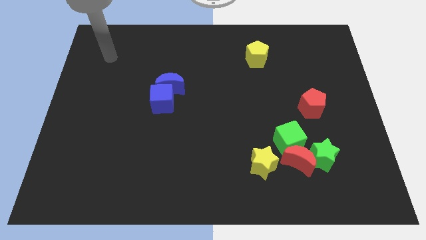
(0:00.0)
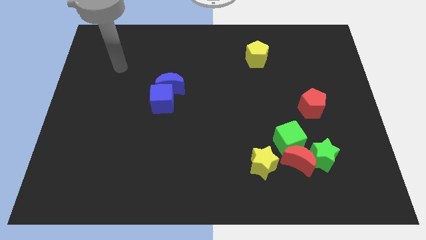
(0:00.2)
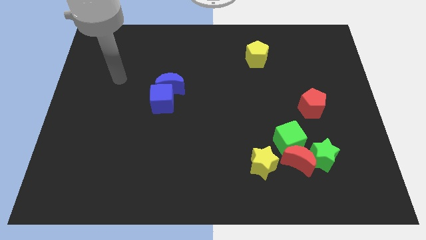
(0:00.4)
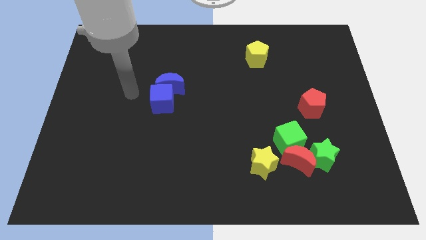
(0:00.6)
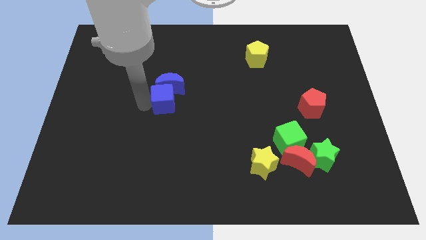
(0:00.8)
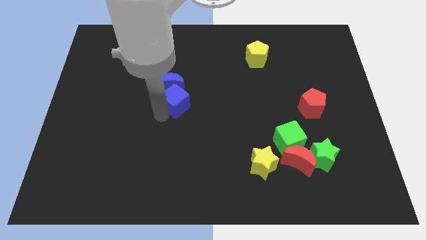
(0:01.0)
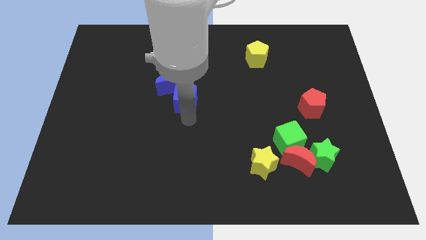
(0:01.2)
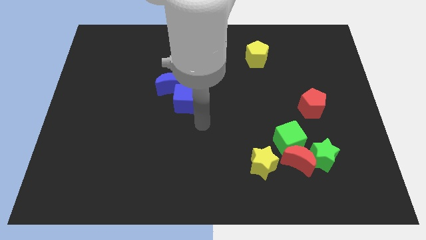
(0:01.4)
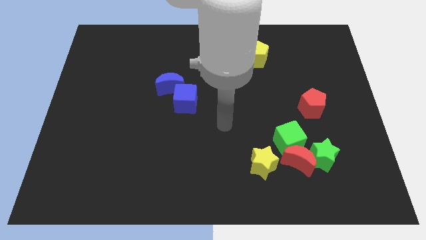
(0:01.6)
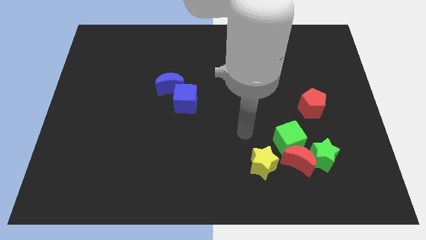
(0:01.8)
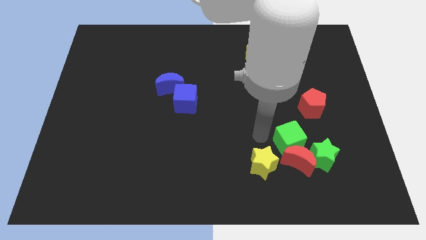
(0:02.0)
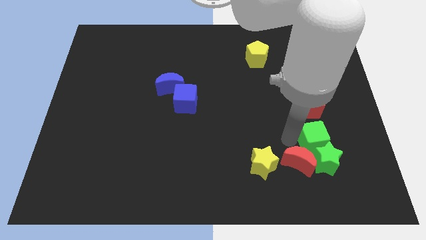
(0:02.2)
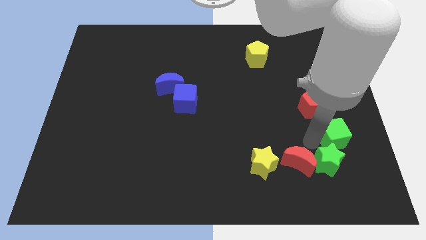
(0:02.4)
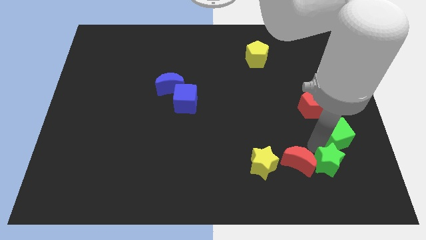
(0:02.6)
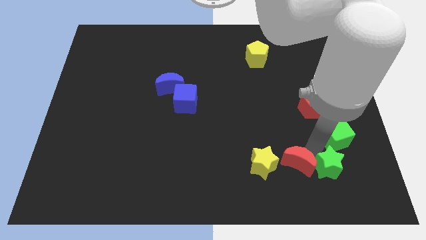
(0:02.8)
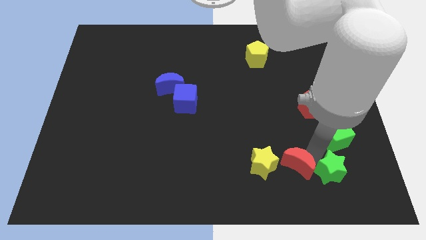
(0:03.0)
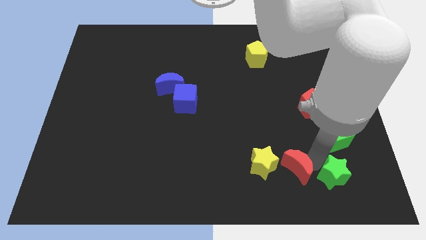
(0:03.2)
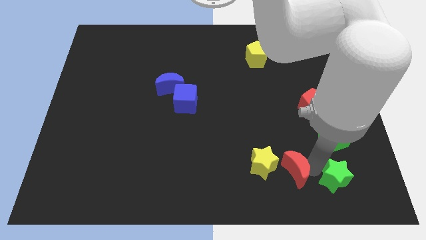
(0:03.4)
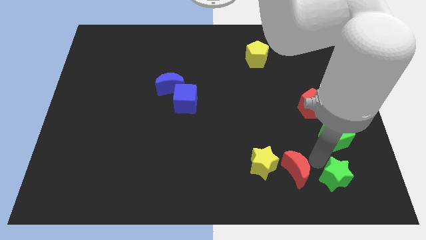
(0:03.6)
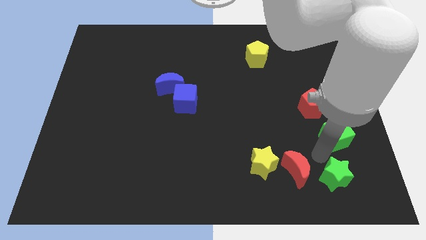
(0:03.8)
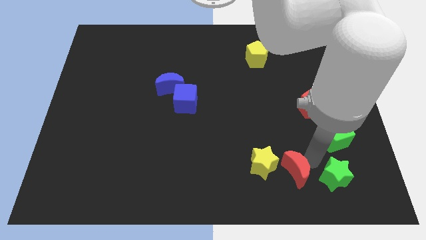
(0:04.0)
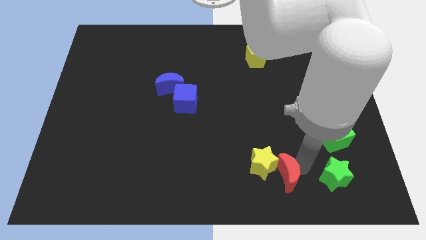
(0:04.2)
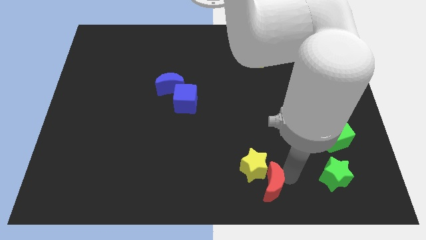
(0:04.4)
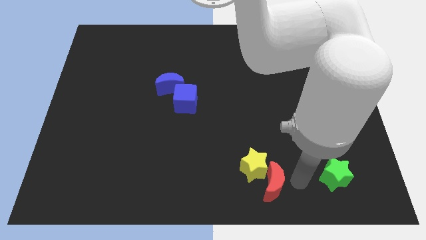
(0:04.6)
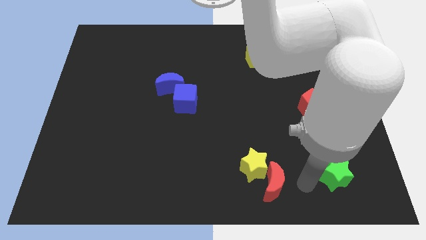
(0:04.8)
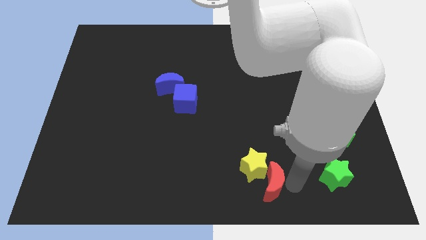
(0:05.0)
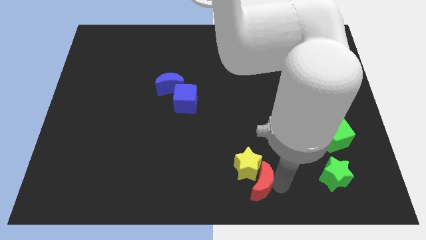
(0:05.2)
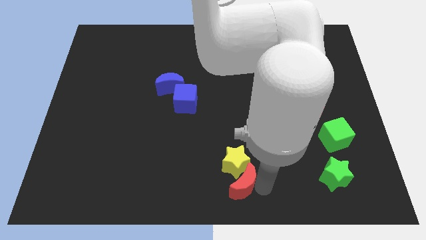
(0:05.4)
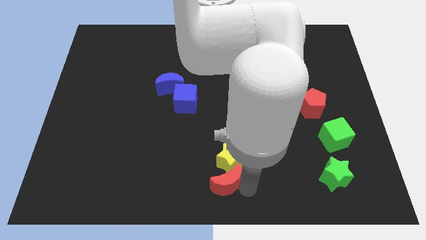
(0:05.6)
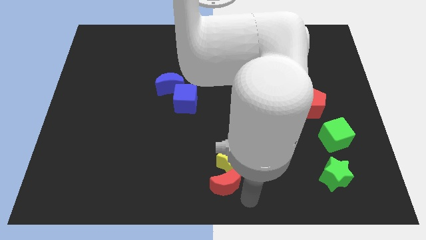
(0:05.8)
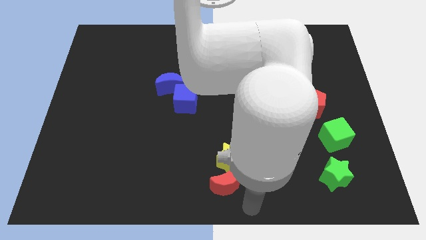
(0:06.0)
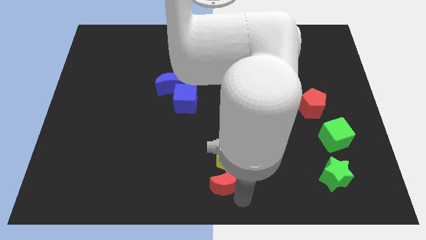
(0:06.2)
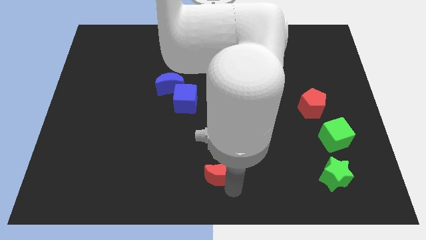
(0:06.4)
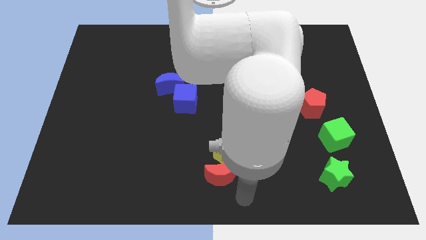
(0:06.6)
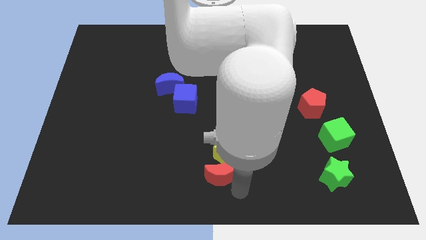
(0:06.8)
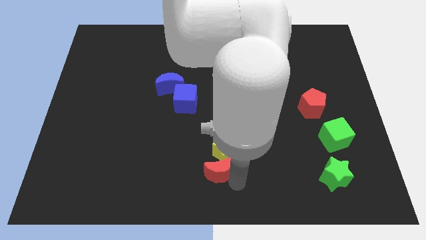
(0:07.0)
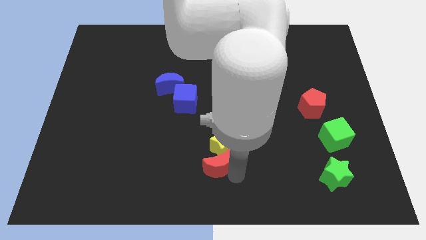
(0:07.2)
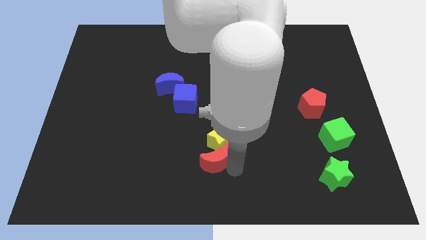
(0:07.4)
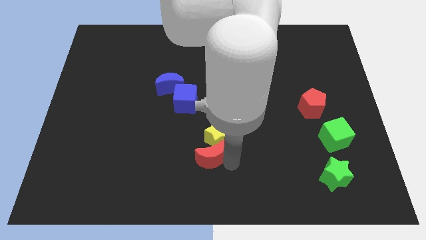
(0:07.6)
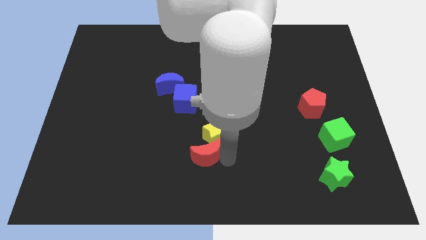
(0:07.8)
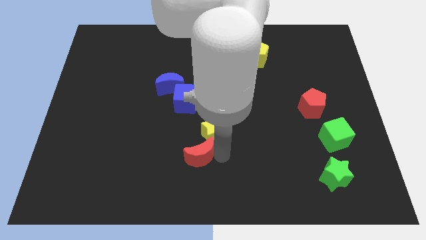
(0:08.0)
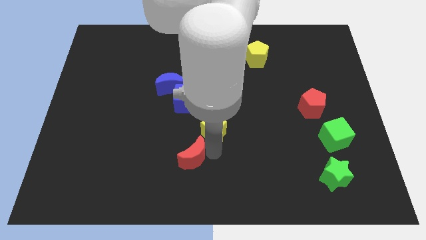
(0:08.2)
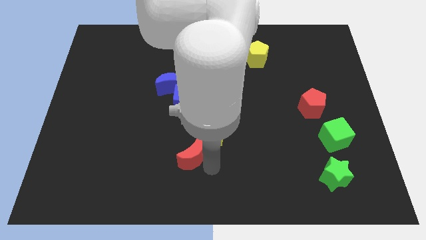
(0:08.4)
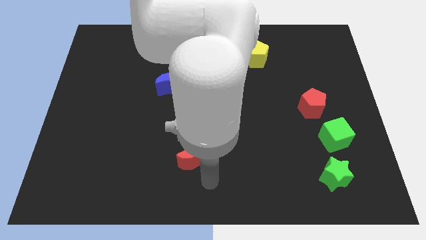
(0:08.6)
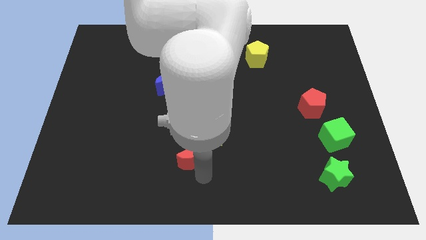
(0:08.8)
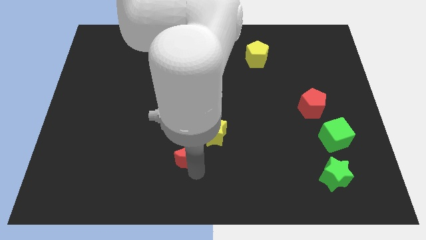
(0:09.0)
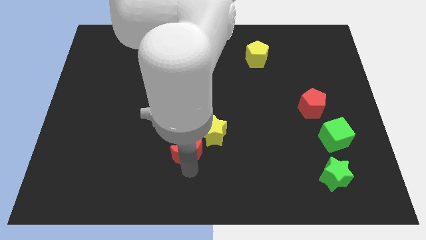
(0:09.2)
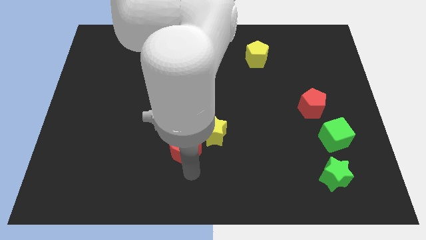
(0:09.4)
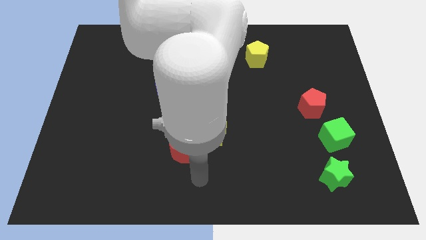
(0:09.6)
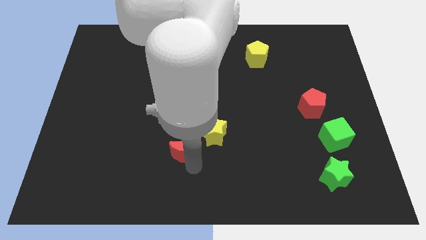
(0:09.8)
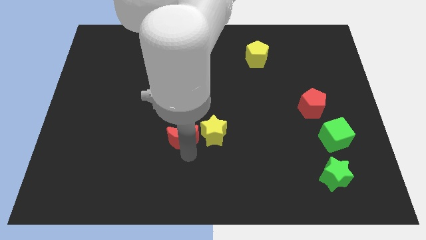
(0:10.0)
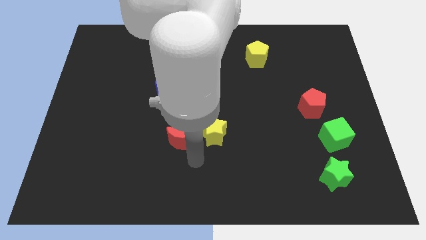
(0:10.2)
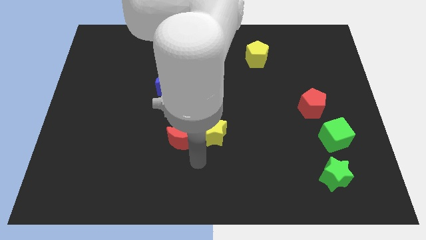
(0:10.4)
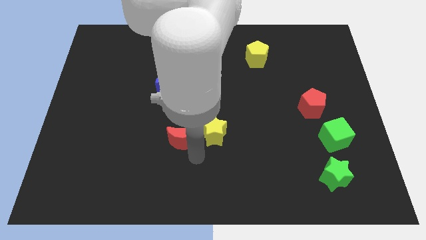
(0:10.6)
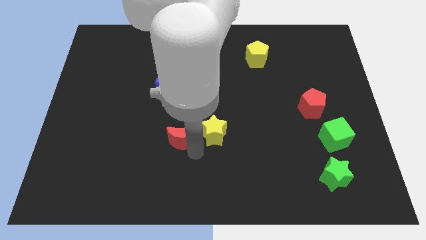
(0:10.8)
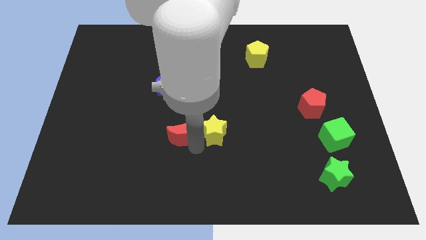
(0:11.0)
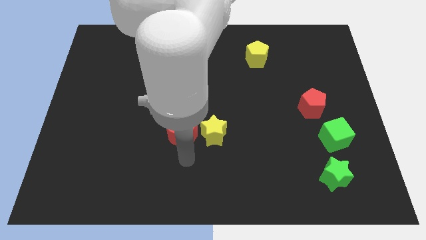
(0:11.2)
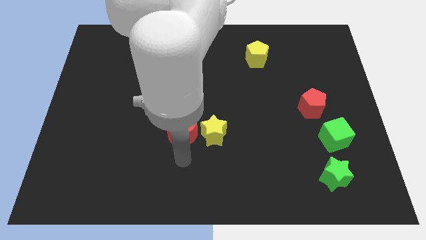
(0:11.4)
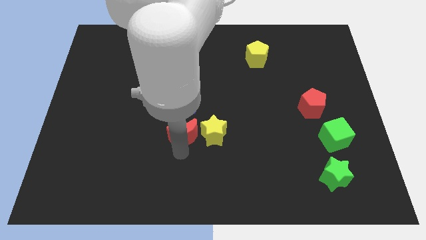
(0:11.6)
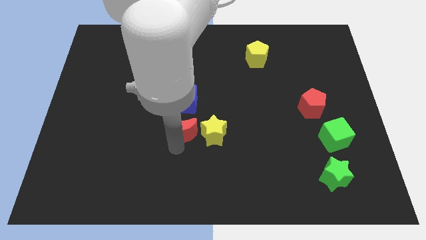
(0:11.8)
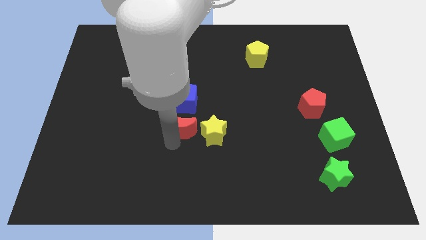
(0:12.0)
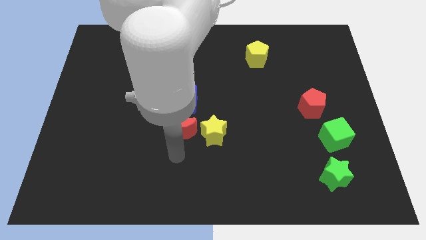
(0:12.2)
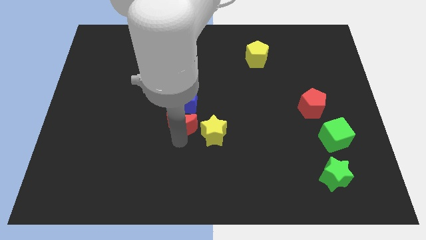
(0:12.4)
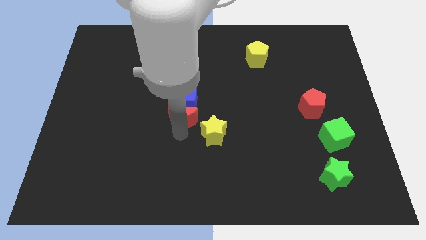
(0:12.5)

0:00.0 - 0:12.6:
put the red moon to the blue cube

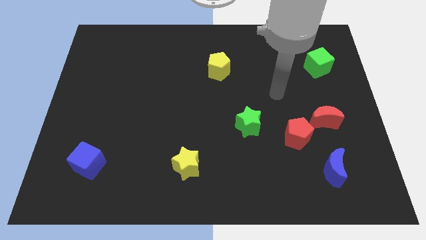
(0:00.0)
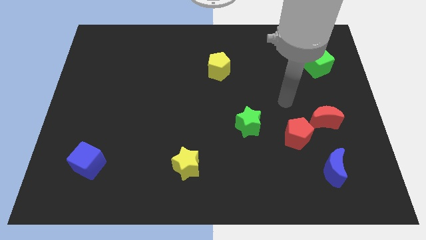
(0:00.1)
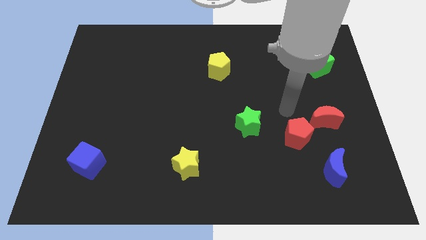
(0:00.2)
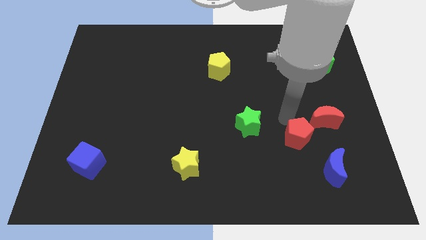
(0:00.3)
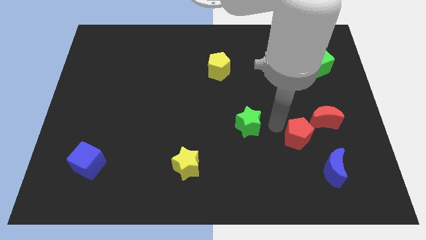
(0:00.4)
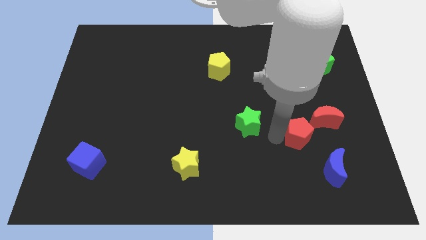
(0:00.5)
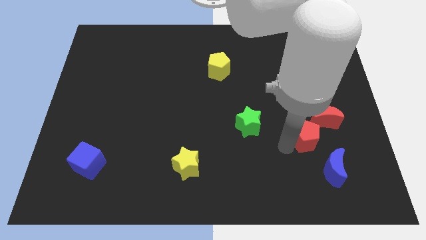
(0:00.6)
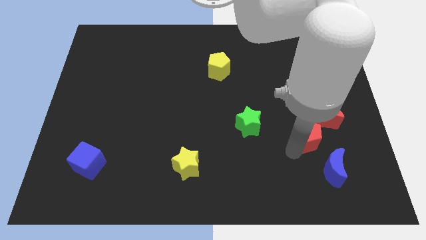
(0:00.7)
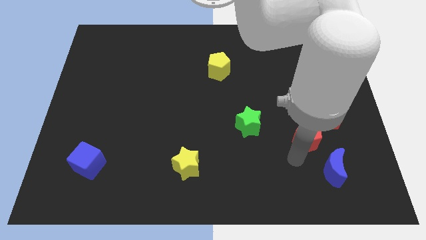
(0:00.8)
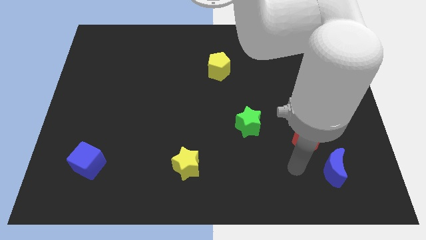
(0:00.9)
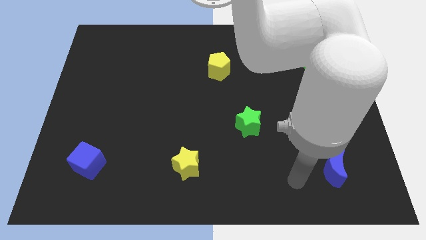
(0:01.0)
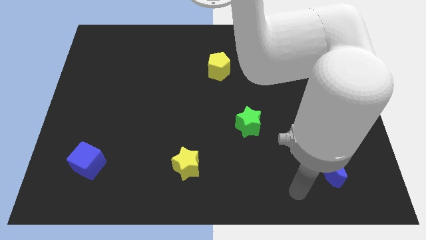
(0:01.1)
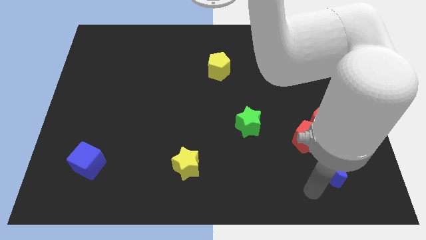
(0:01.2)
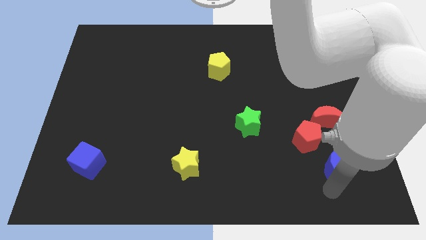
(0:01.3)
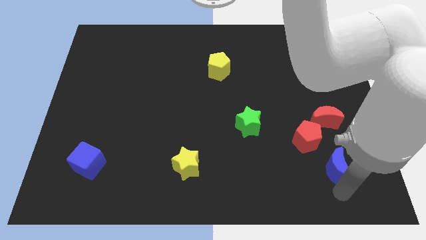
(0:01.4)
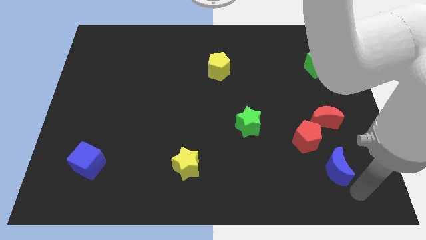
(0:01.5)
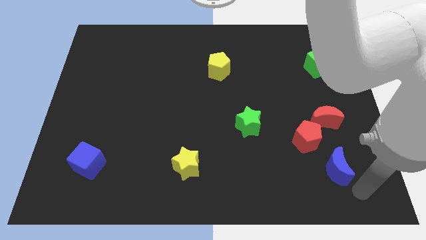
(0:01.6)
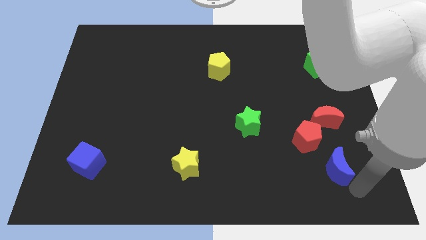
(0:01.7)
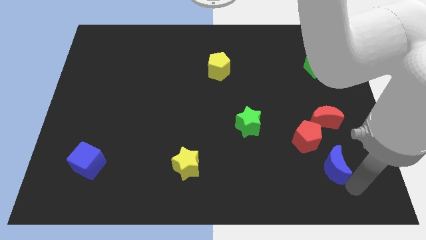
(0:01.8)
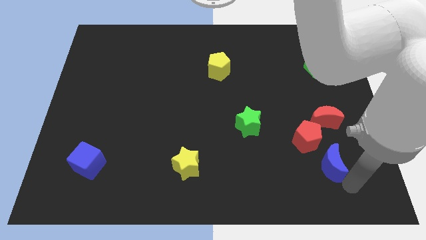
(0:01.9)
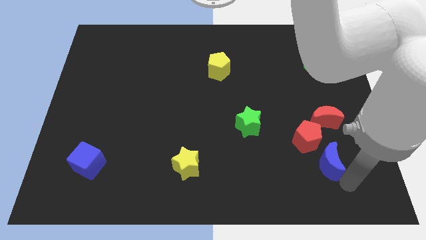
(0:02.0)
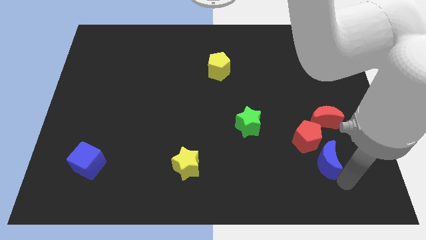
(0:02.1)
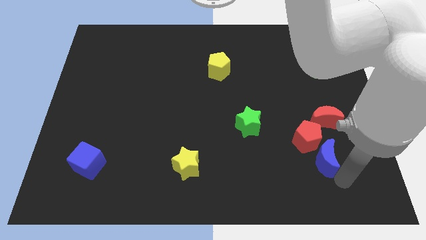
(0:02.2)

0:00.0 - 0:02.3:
slide the blue moon to the red pentagon
